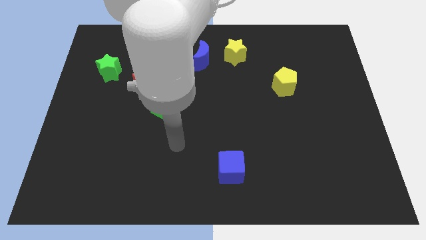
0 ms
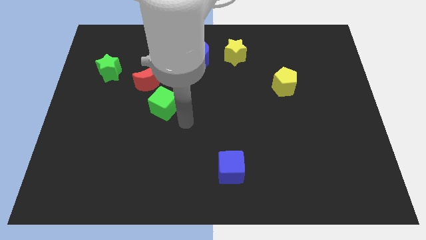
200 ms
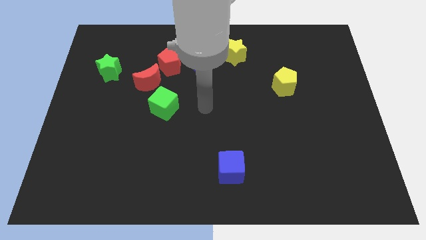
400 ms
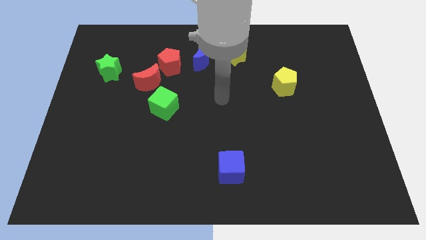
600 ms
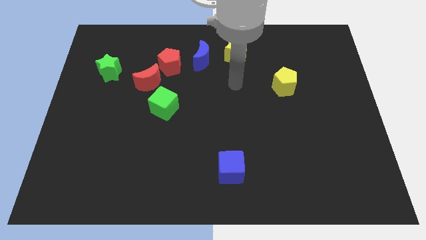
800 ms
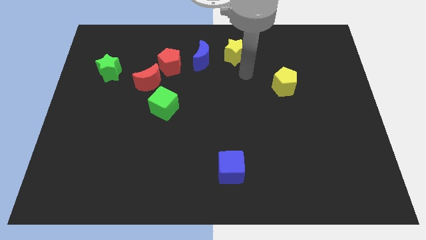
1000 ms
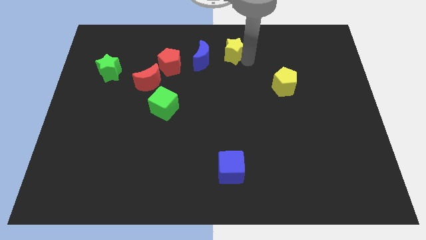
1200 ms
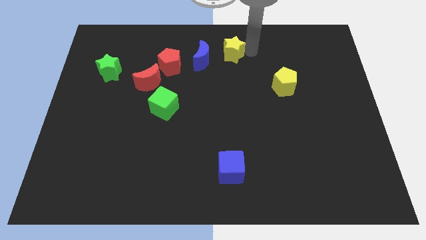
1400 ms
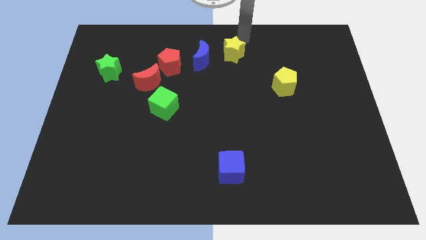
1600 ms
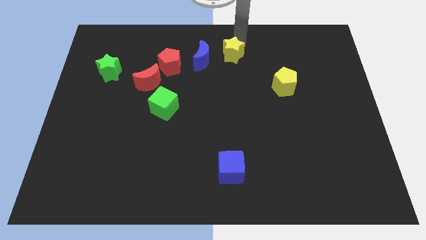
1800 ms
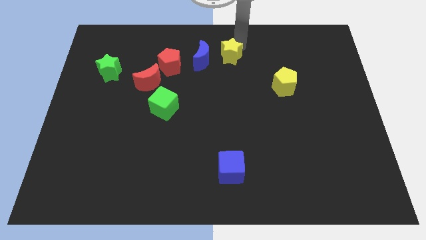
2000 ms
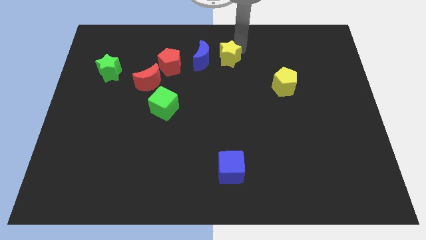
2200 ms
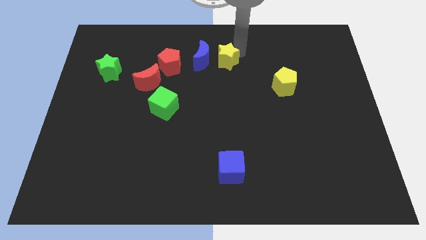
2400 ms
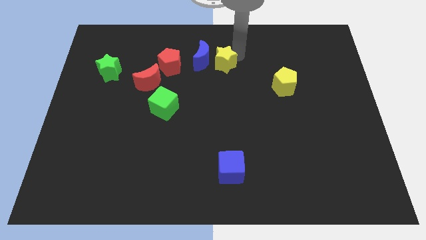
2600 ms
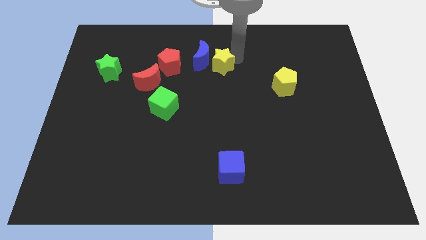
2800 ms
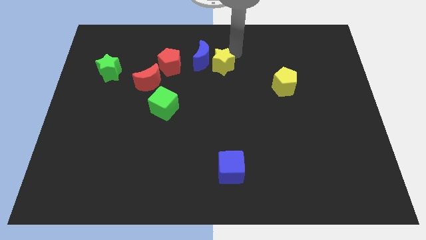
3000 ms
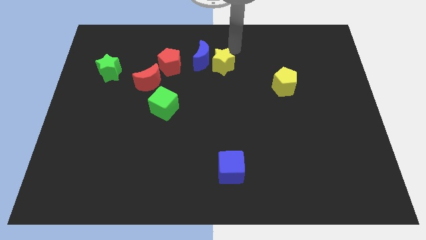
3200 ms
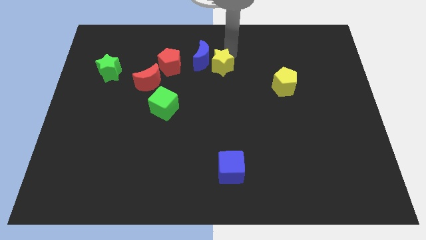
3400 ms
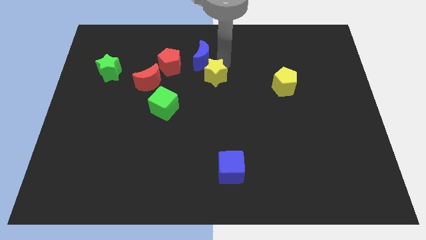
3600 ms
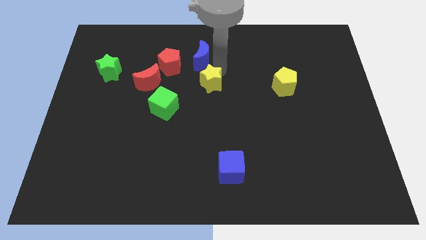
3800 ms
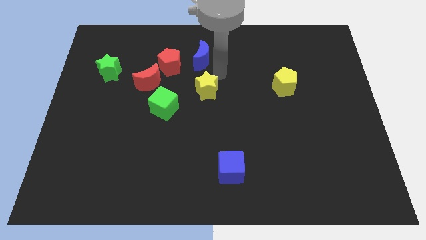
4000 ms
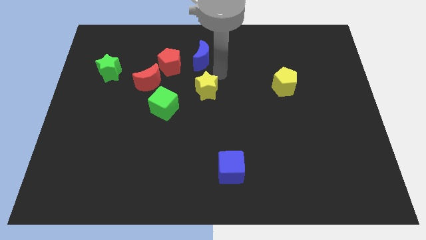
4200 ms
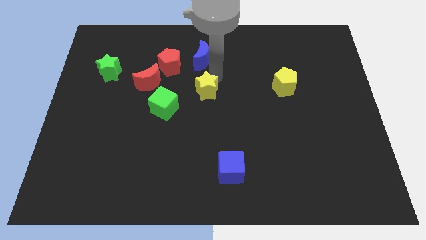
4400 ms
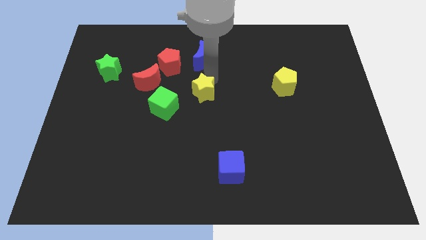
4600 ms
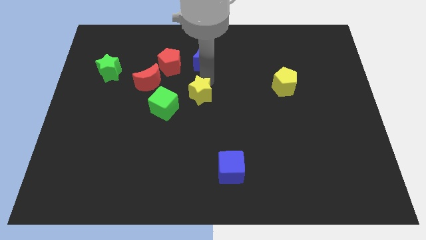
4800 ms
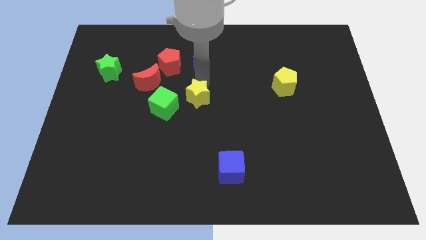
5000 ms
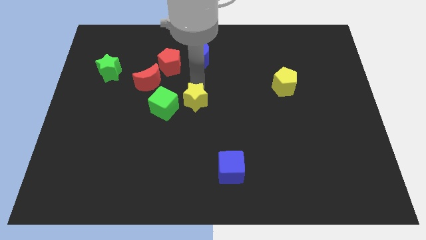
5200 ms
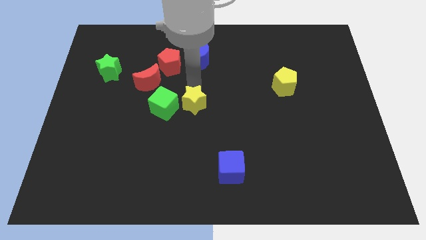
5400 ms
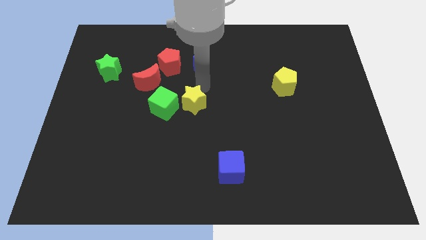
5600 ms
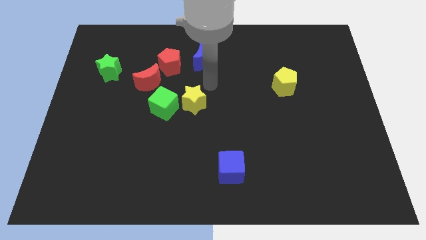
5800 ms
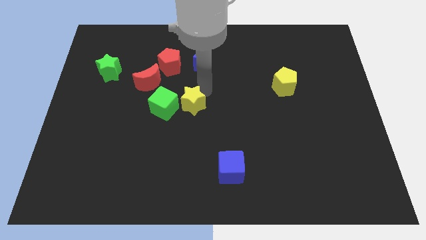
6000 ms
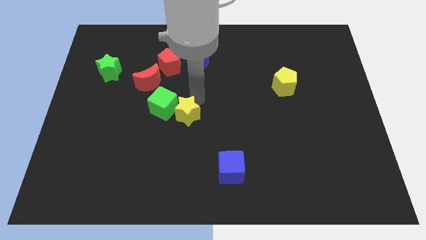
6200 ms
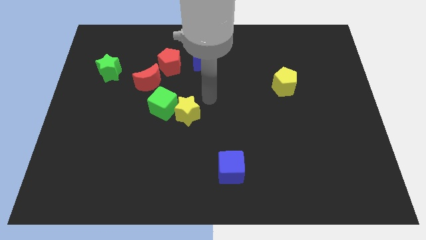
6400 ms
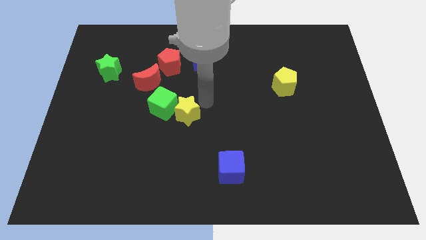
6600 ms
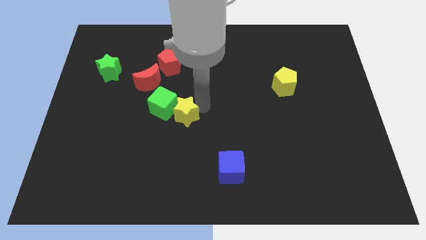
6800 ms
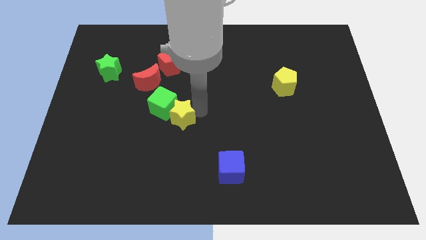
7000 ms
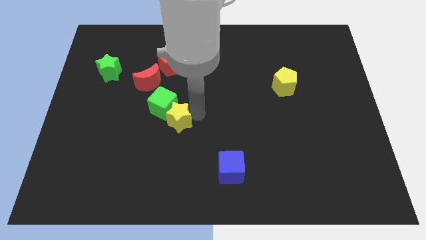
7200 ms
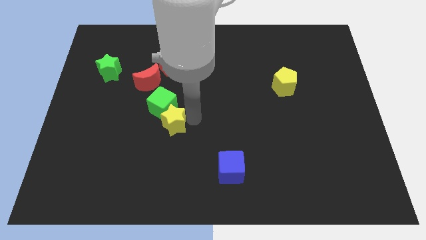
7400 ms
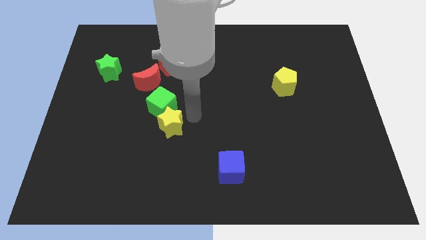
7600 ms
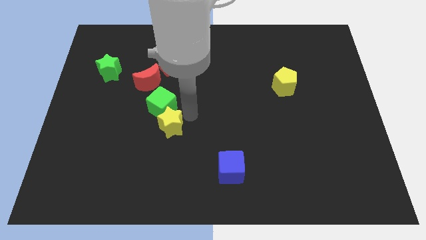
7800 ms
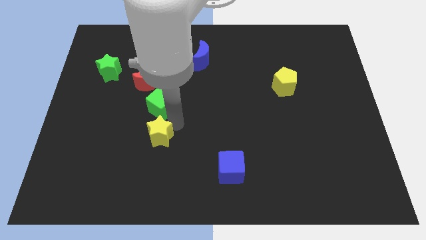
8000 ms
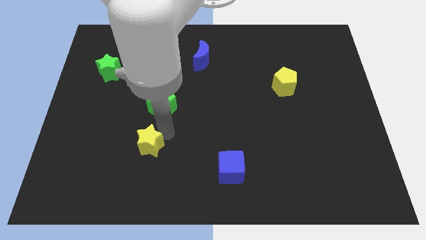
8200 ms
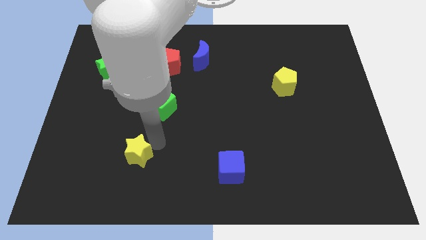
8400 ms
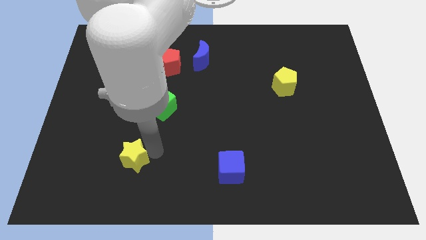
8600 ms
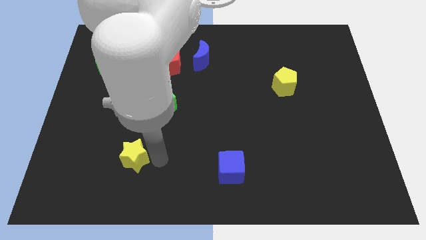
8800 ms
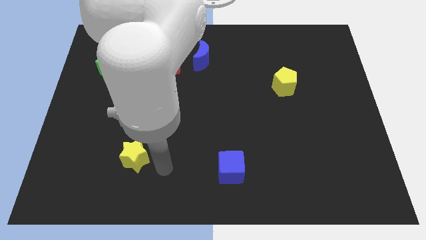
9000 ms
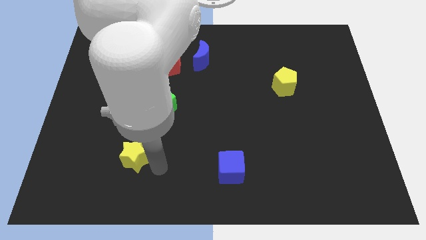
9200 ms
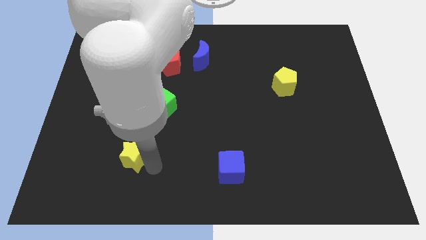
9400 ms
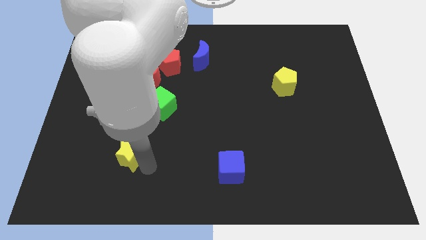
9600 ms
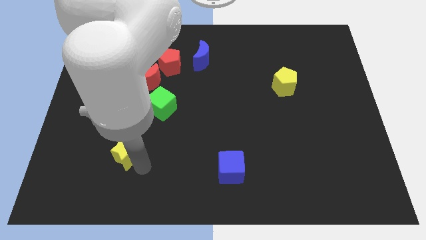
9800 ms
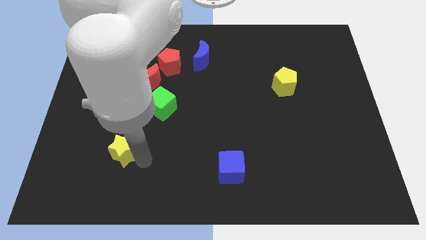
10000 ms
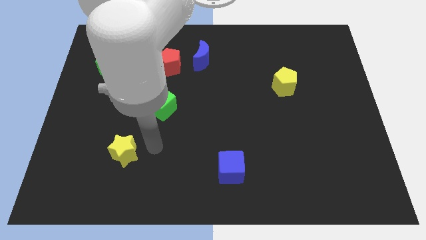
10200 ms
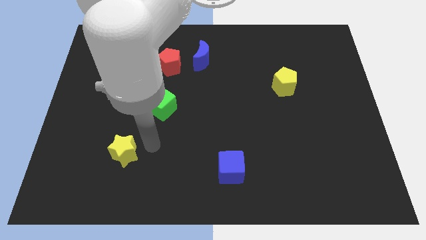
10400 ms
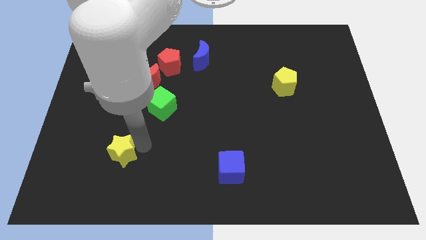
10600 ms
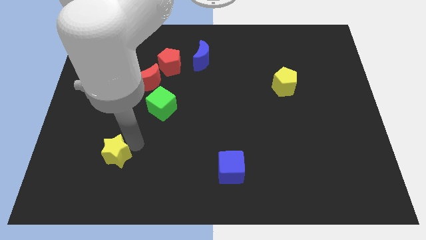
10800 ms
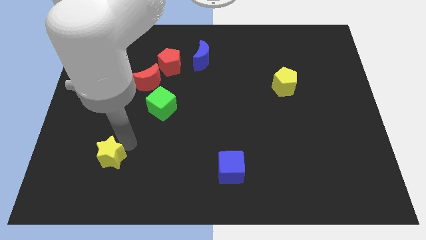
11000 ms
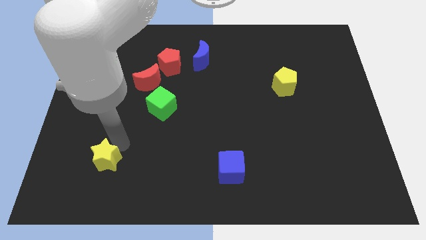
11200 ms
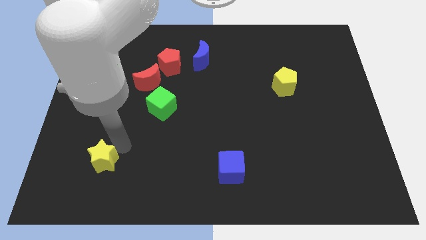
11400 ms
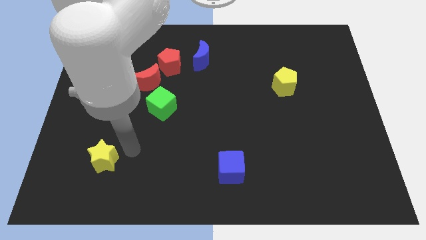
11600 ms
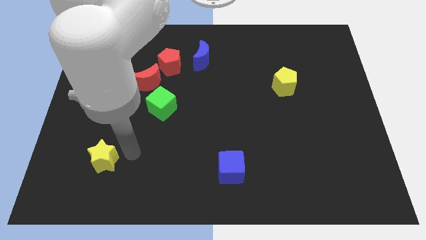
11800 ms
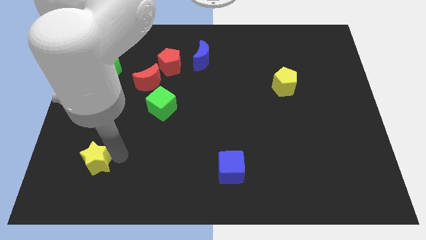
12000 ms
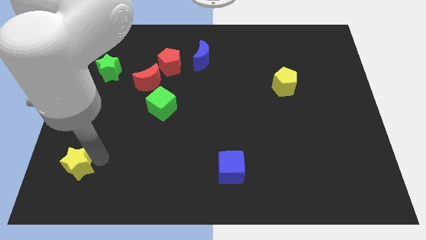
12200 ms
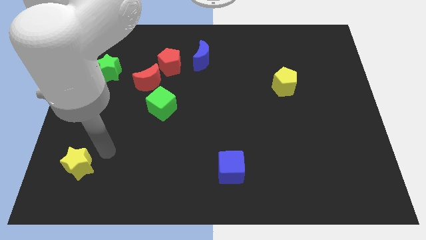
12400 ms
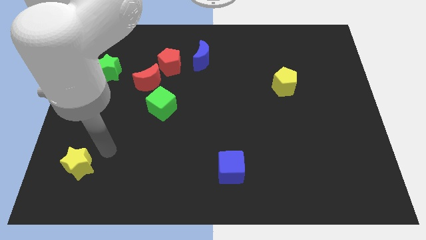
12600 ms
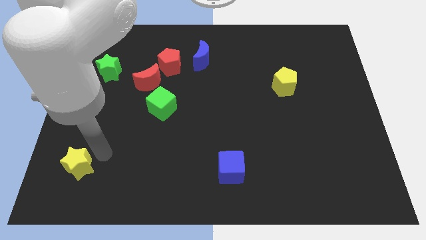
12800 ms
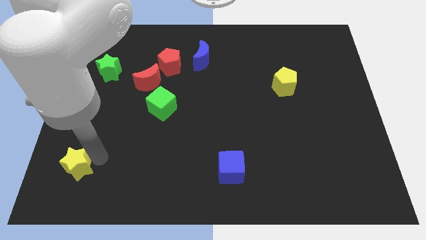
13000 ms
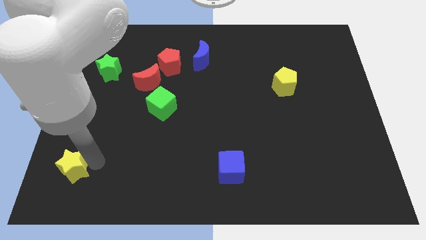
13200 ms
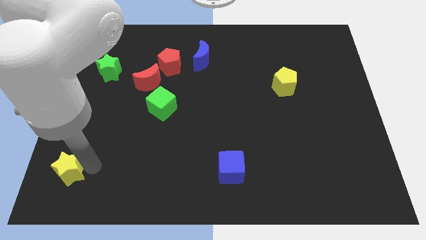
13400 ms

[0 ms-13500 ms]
move the yellow star to the bottom left corner
